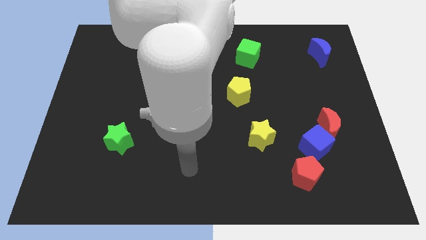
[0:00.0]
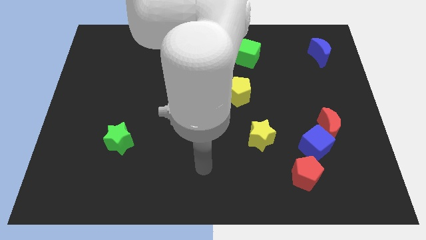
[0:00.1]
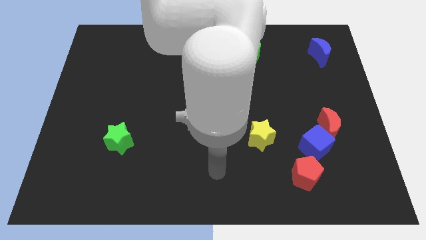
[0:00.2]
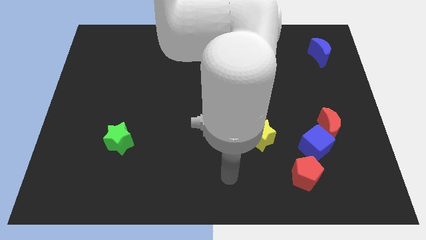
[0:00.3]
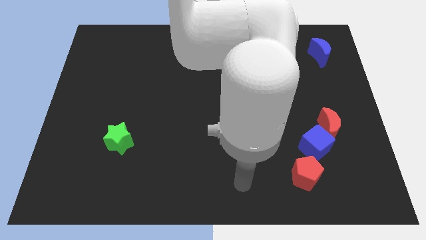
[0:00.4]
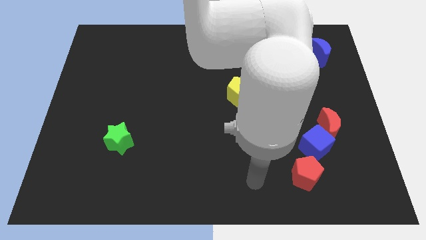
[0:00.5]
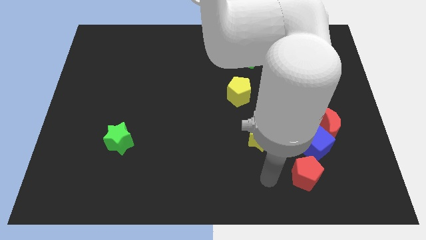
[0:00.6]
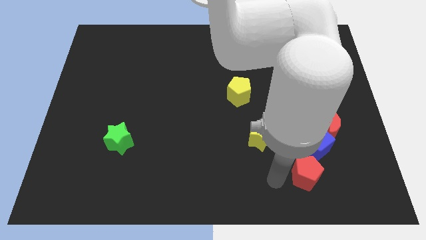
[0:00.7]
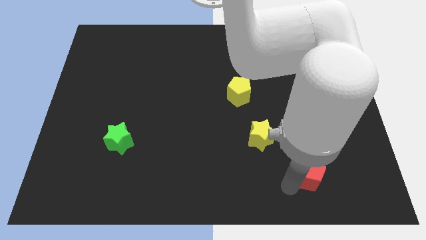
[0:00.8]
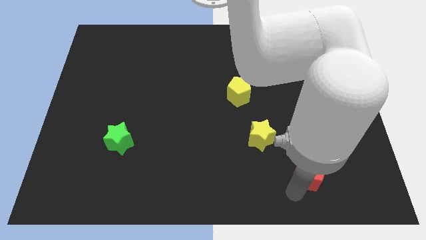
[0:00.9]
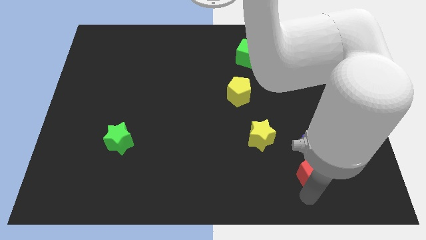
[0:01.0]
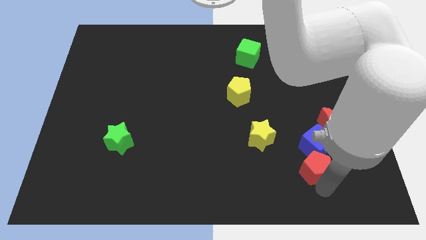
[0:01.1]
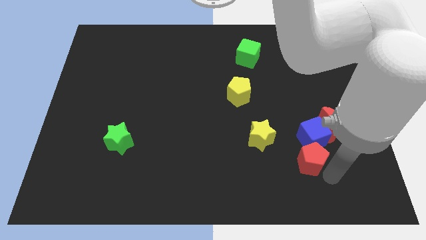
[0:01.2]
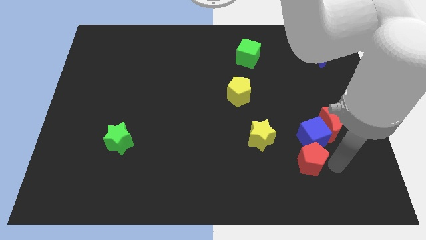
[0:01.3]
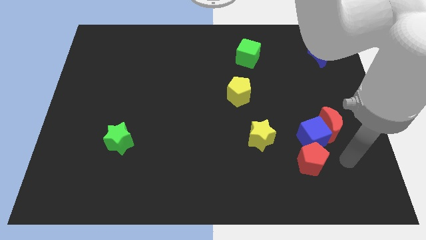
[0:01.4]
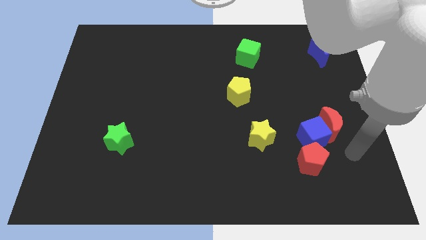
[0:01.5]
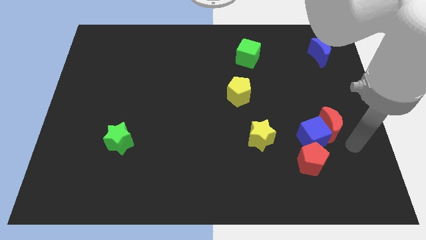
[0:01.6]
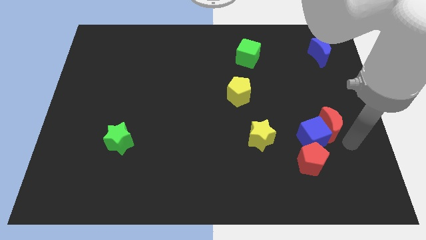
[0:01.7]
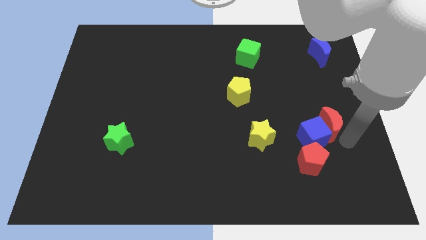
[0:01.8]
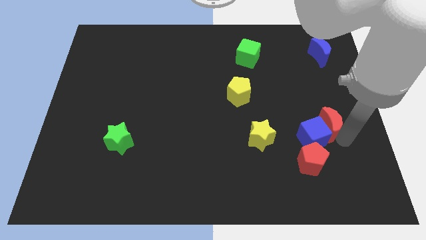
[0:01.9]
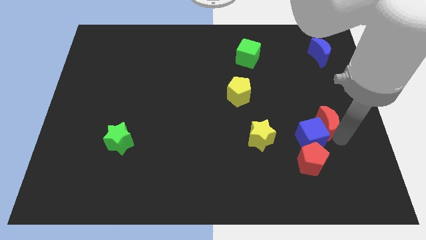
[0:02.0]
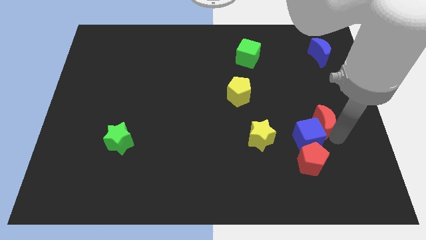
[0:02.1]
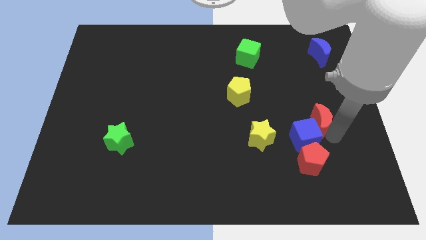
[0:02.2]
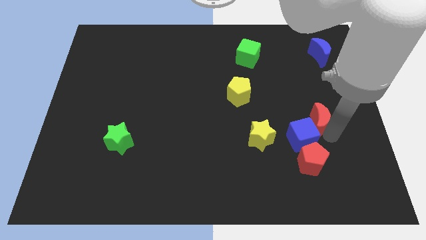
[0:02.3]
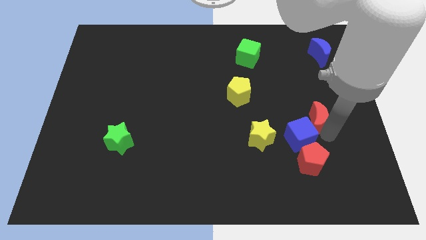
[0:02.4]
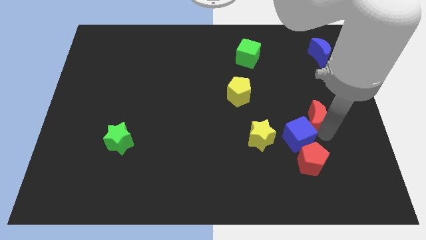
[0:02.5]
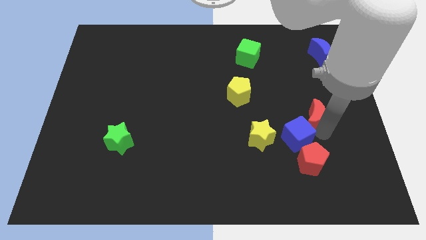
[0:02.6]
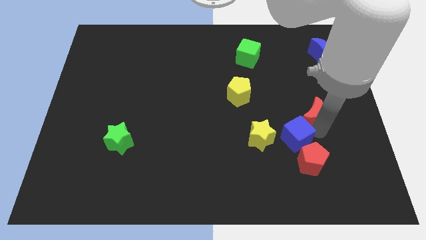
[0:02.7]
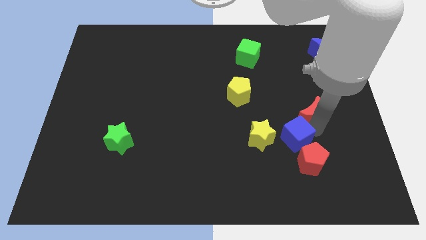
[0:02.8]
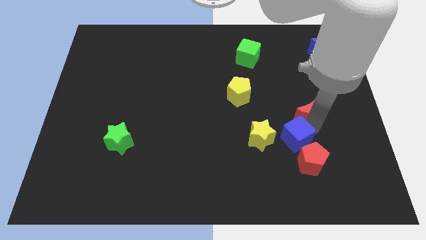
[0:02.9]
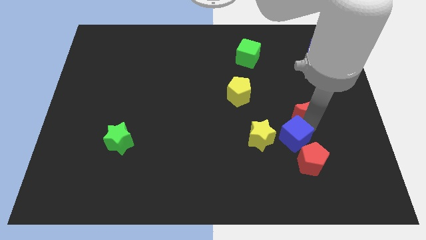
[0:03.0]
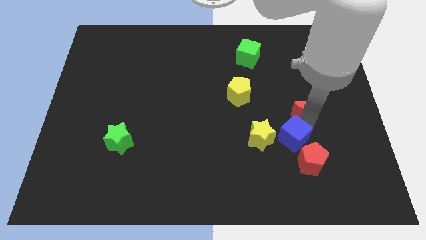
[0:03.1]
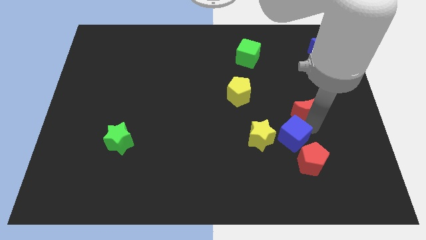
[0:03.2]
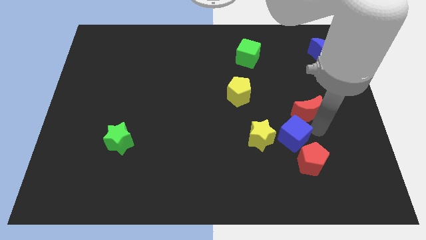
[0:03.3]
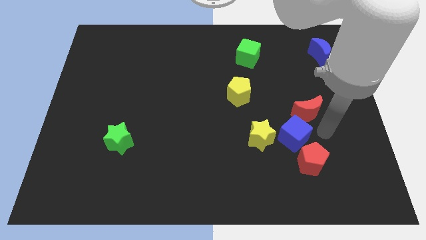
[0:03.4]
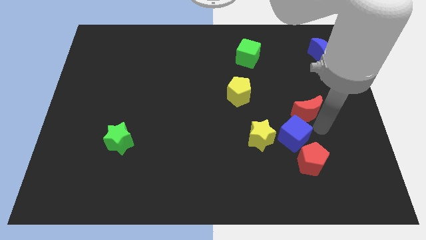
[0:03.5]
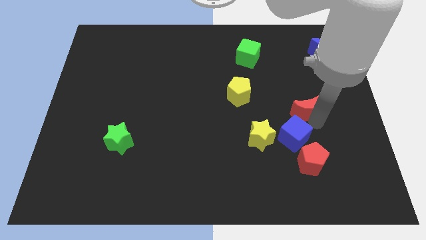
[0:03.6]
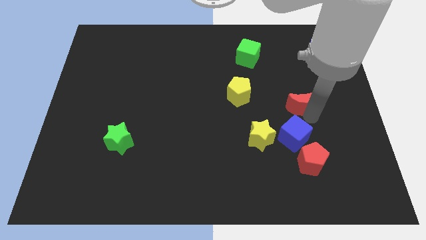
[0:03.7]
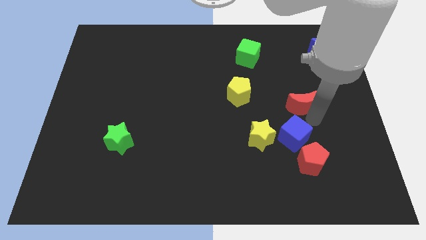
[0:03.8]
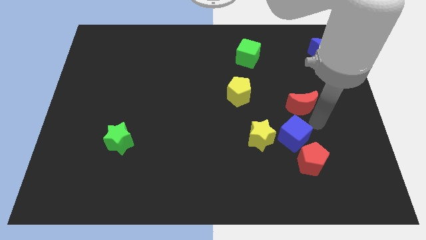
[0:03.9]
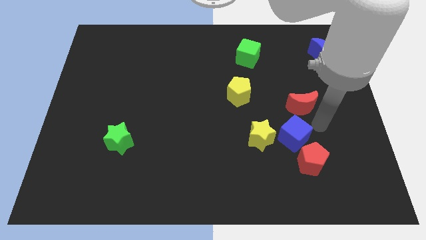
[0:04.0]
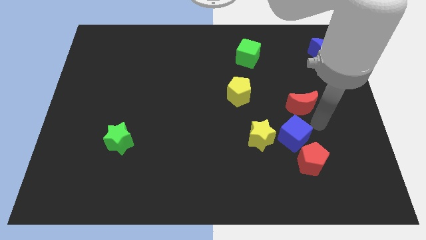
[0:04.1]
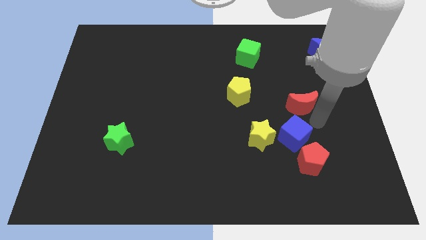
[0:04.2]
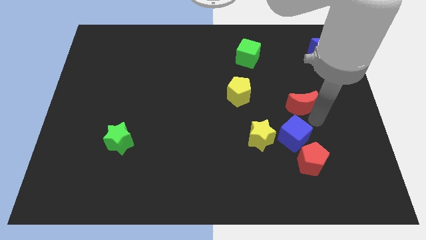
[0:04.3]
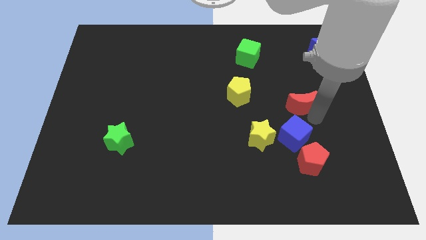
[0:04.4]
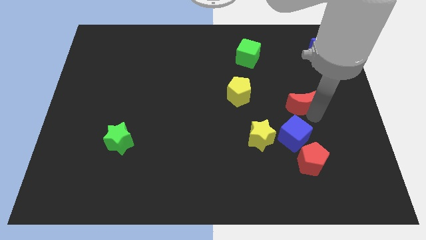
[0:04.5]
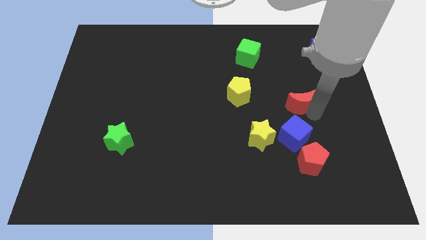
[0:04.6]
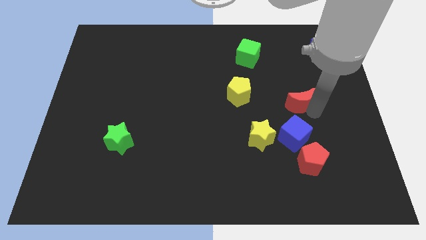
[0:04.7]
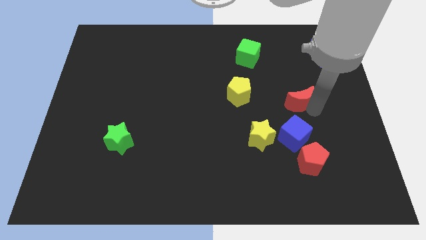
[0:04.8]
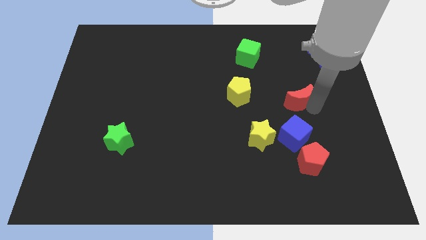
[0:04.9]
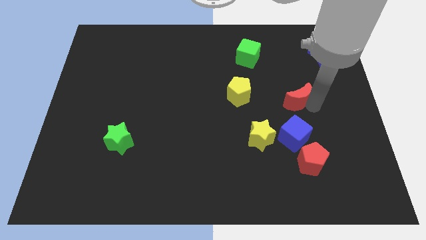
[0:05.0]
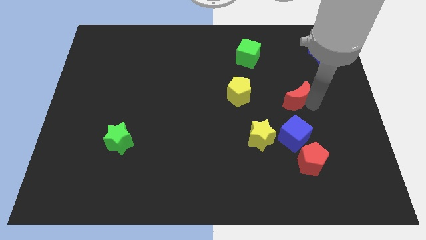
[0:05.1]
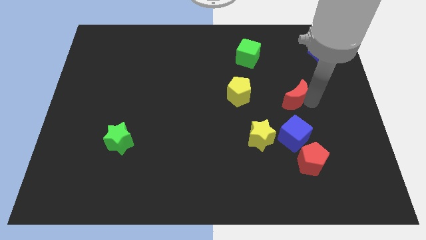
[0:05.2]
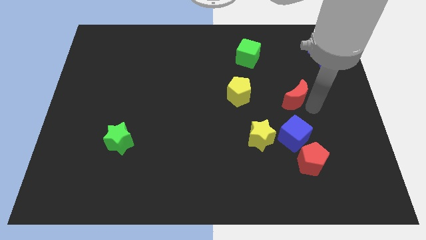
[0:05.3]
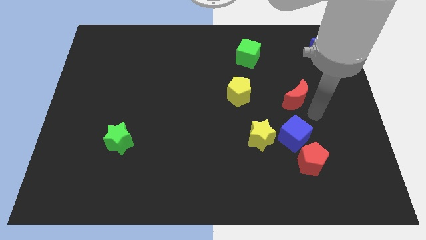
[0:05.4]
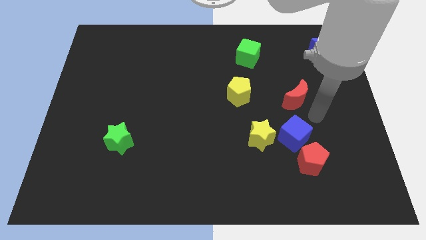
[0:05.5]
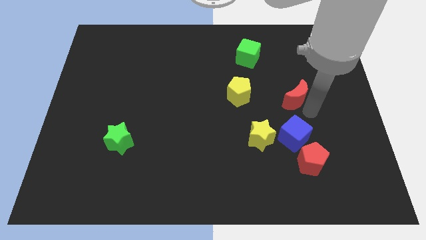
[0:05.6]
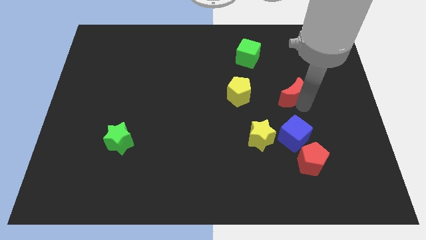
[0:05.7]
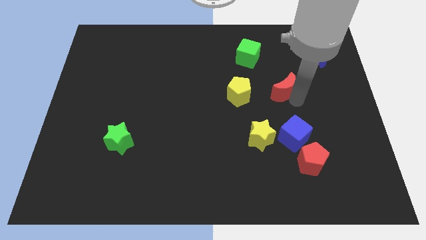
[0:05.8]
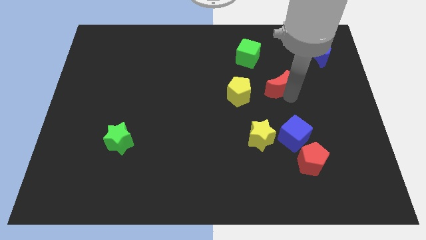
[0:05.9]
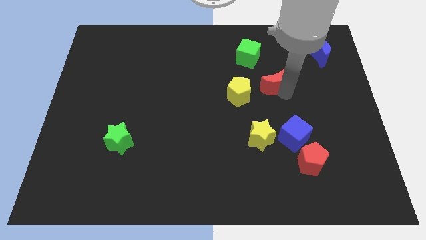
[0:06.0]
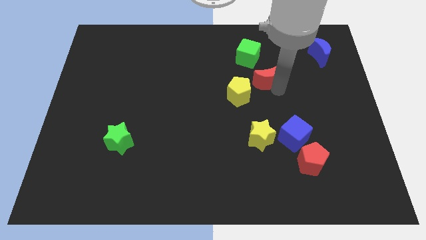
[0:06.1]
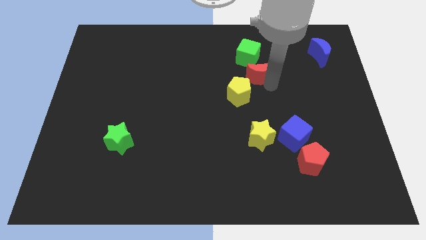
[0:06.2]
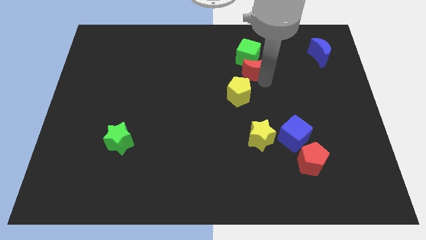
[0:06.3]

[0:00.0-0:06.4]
put the red moon next to the green cube

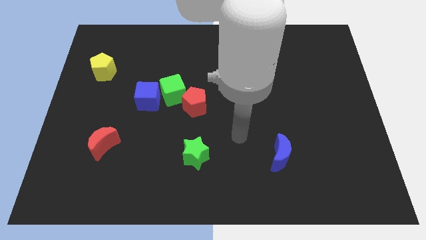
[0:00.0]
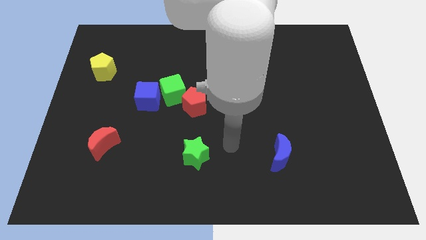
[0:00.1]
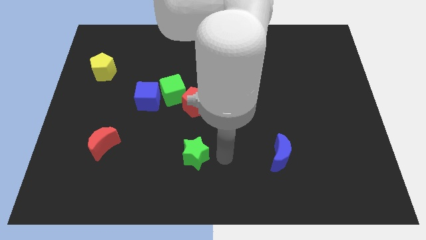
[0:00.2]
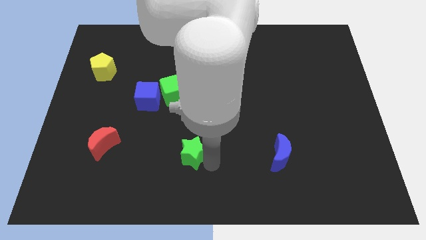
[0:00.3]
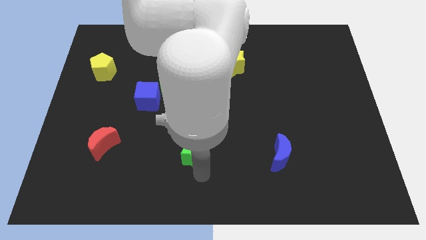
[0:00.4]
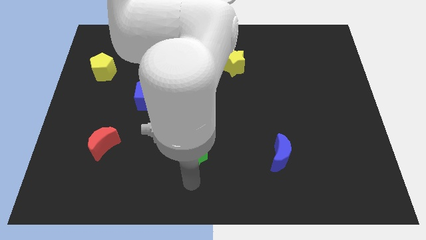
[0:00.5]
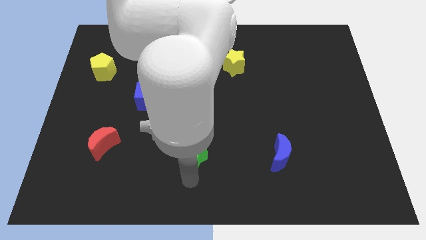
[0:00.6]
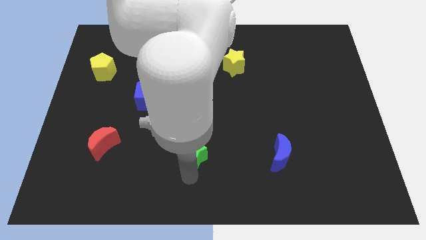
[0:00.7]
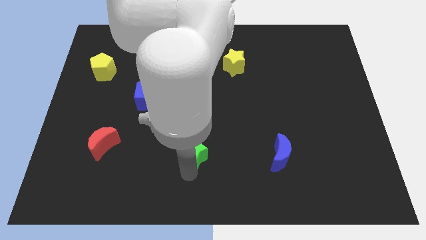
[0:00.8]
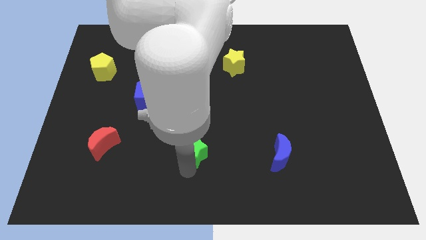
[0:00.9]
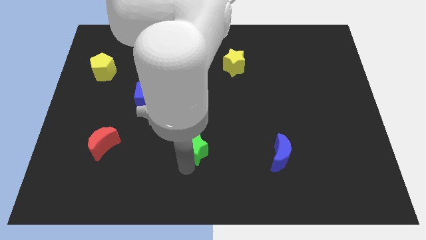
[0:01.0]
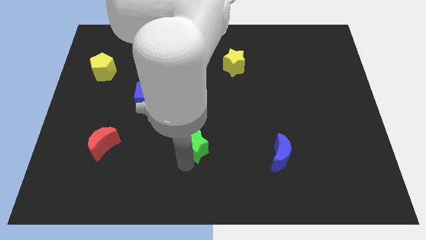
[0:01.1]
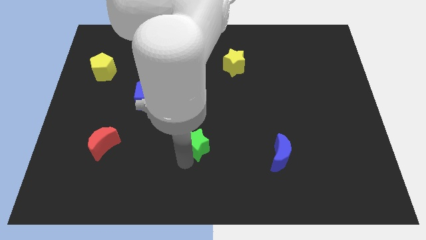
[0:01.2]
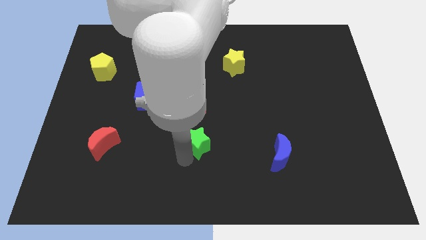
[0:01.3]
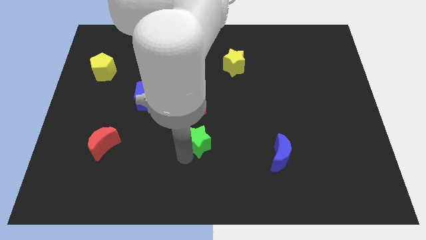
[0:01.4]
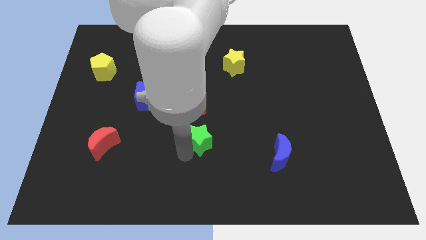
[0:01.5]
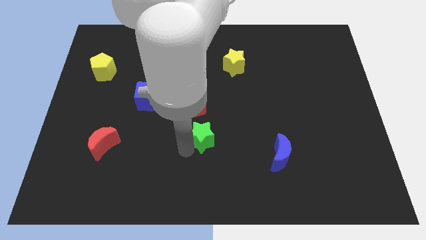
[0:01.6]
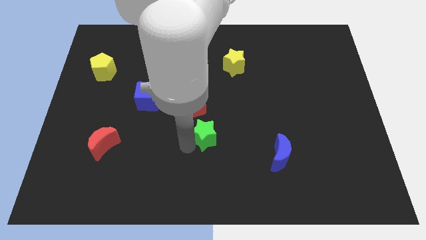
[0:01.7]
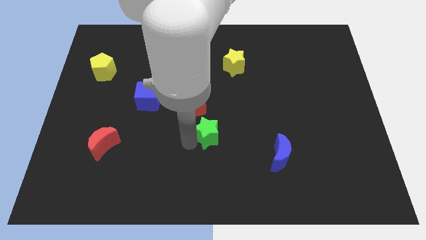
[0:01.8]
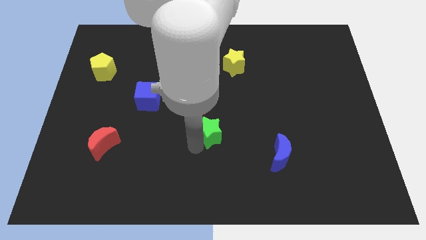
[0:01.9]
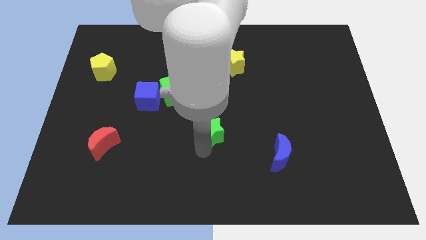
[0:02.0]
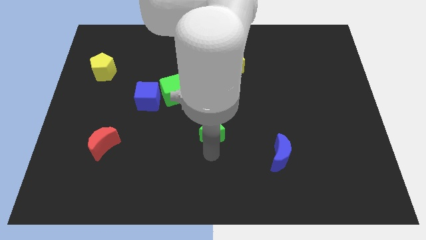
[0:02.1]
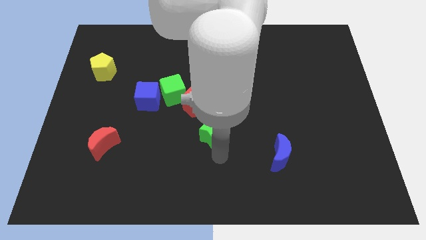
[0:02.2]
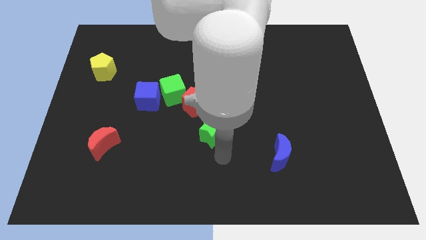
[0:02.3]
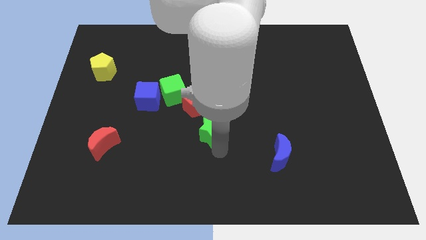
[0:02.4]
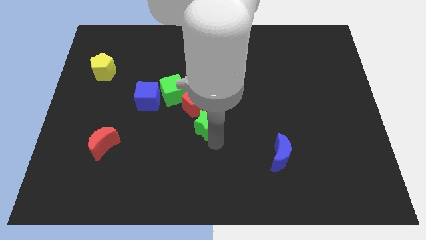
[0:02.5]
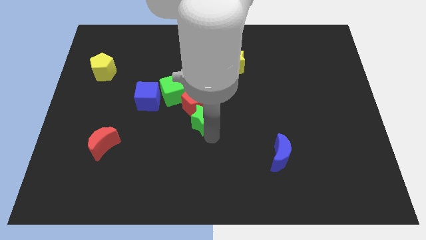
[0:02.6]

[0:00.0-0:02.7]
put the green star next to the red pentagon
